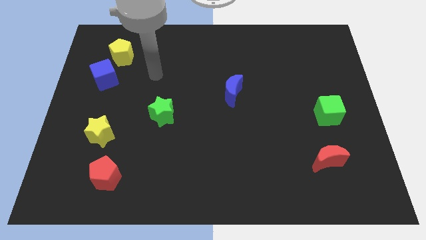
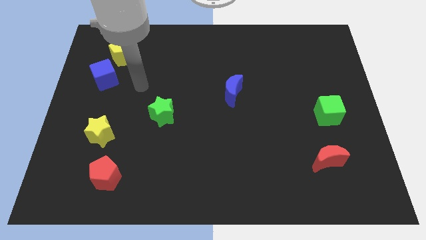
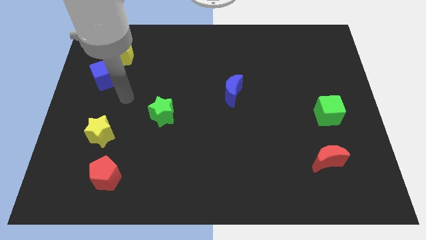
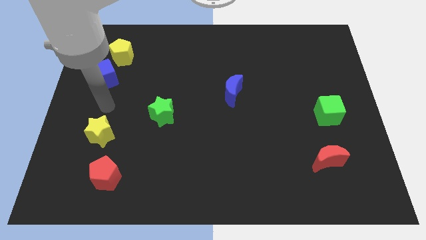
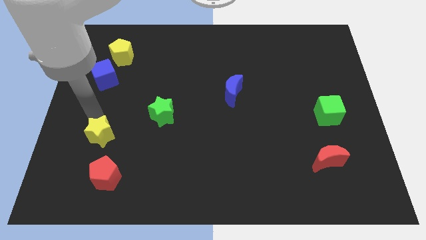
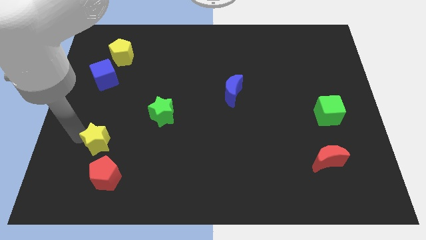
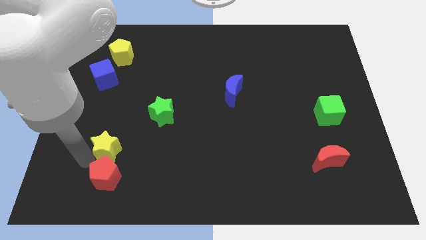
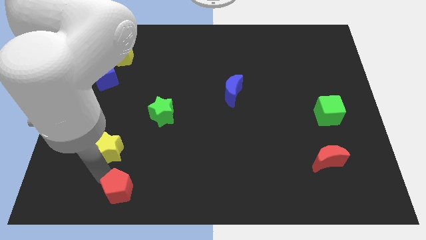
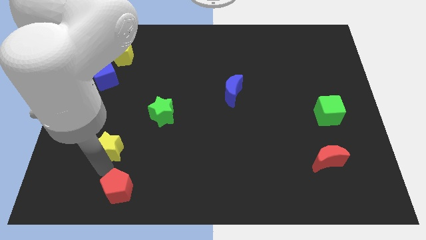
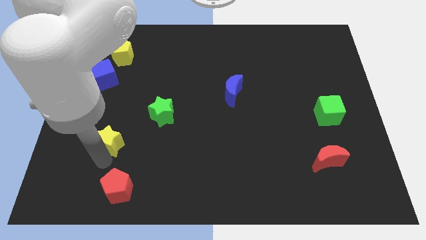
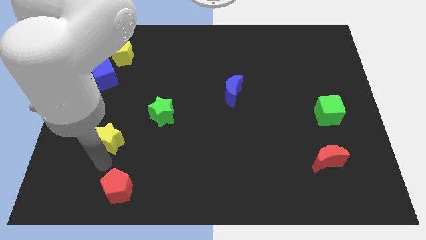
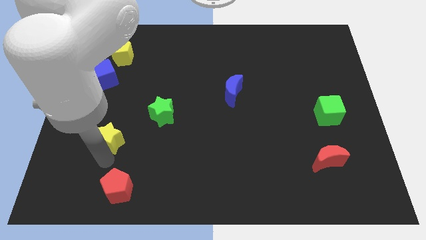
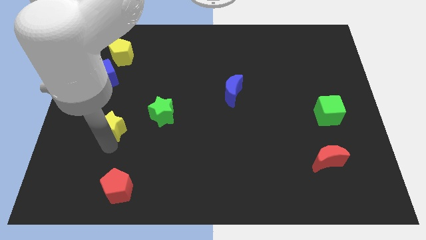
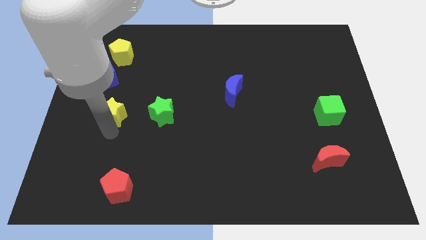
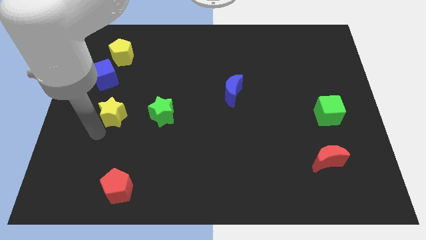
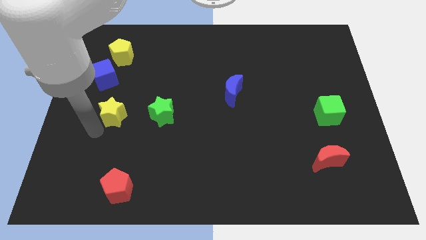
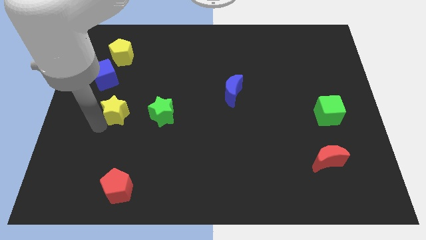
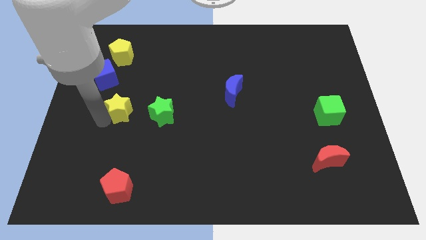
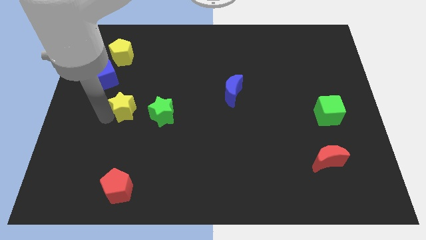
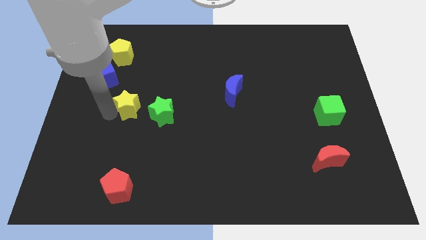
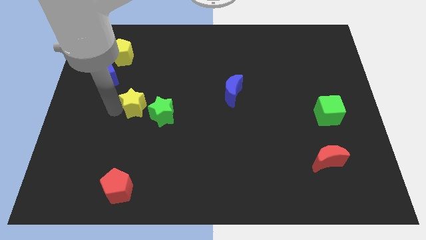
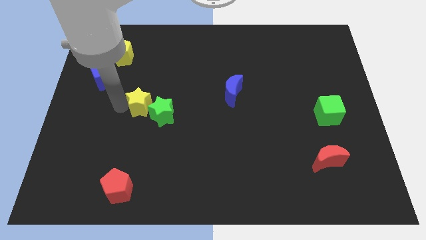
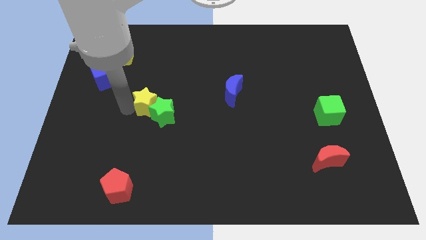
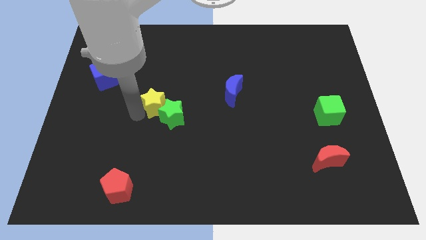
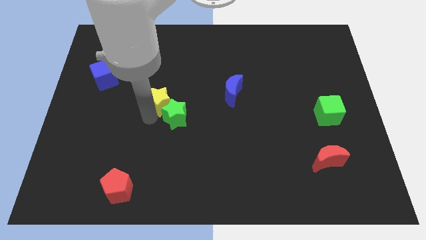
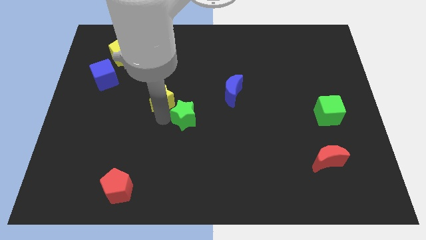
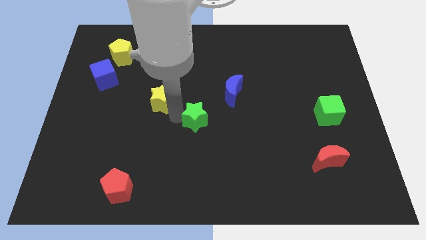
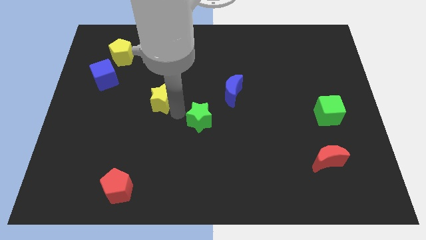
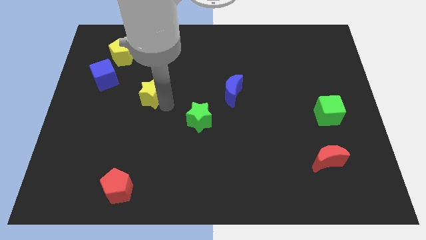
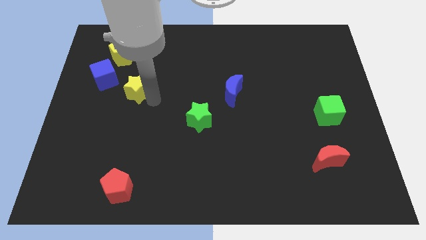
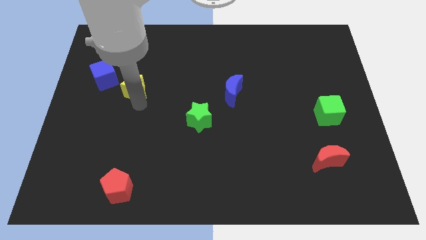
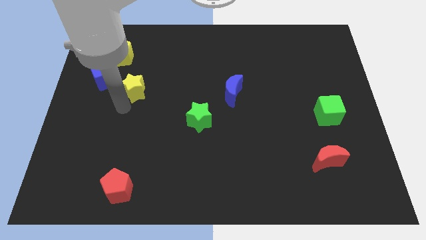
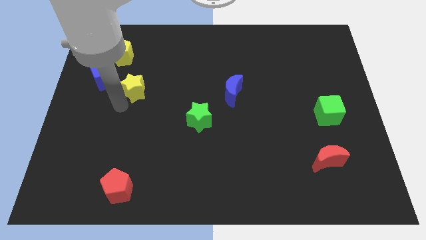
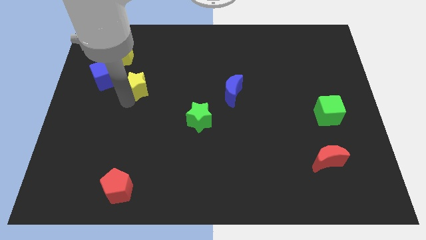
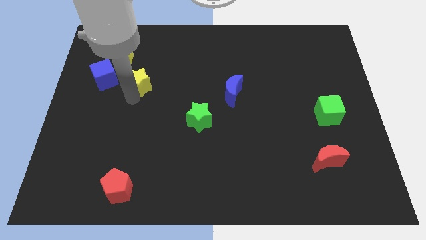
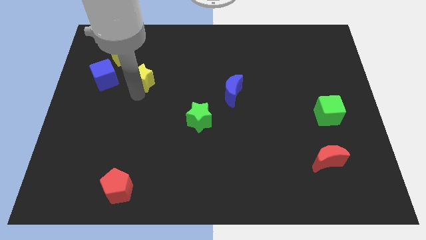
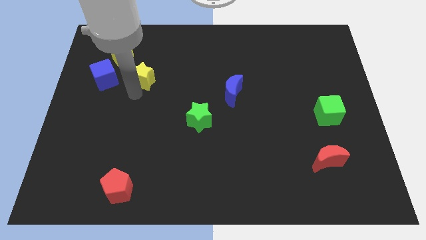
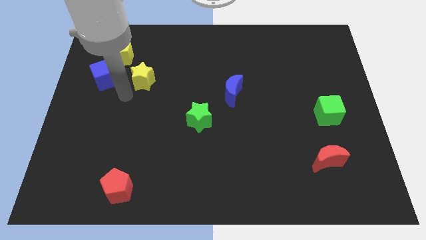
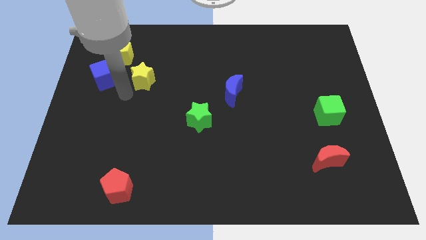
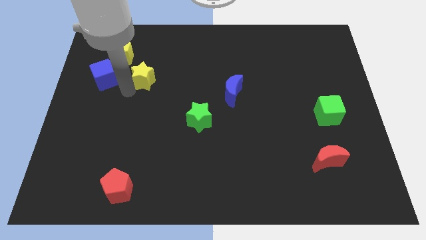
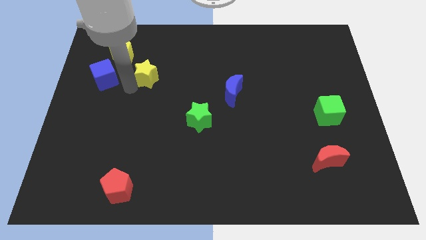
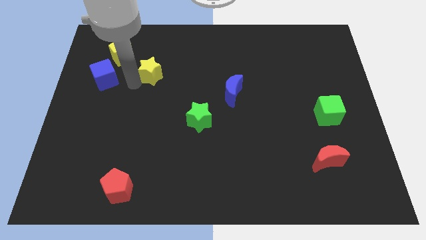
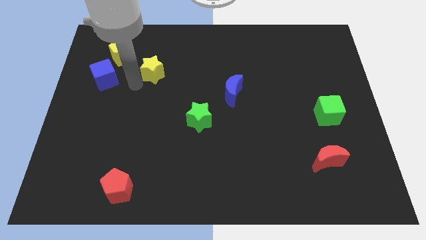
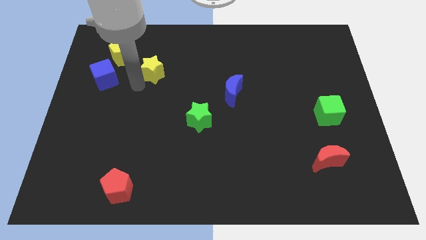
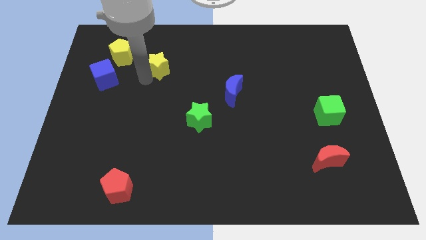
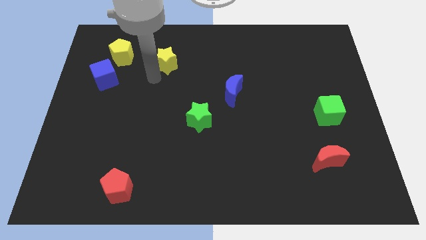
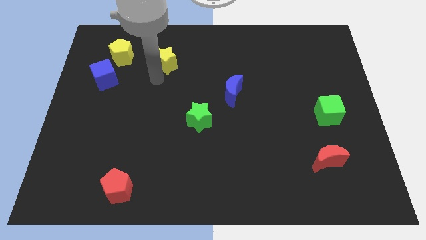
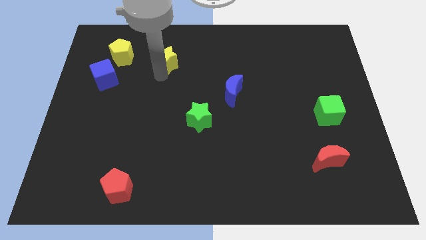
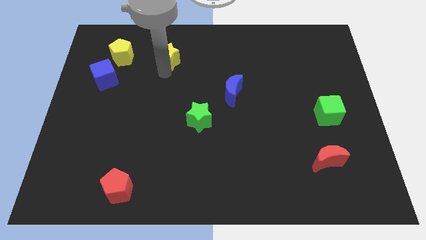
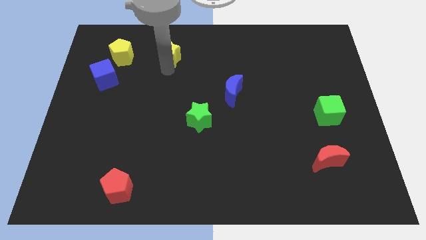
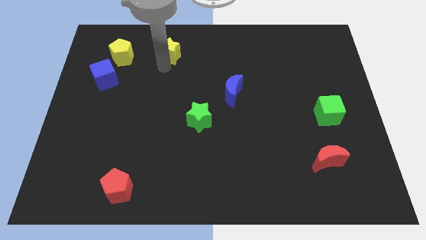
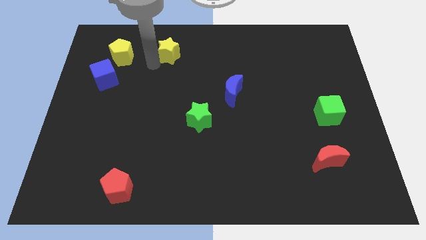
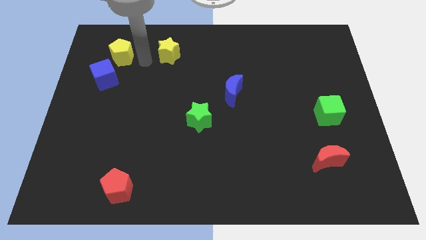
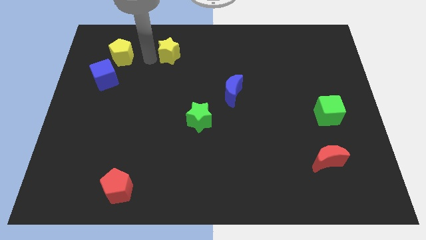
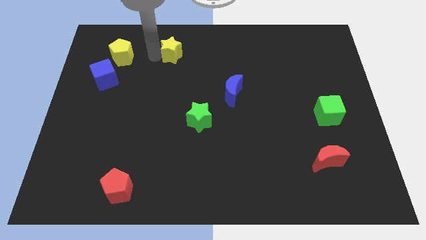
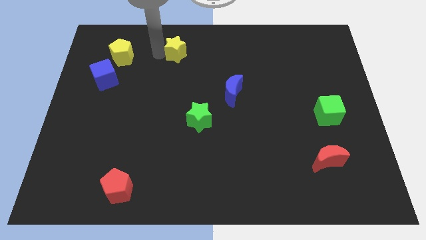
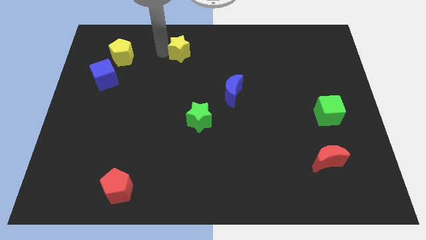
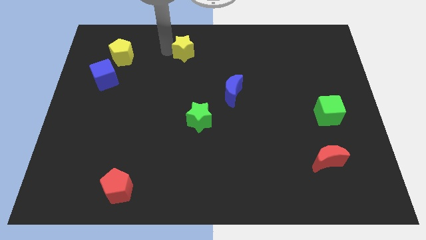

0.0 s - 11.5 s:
push the yellow star to the towards your base

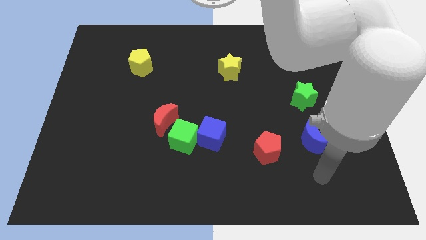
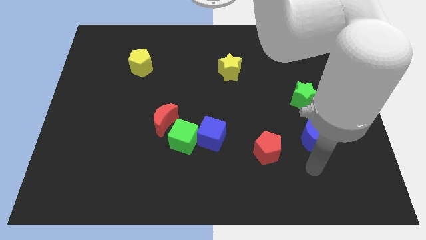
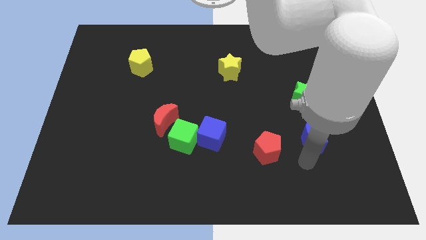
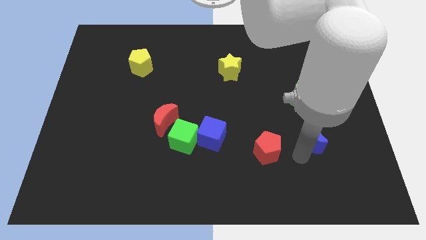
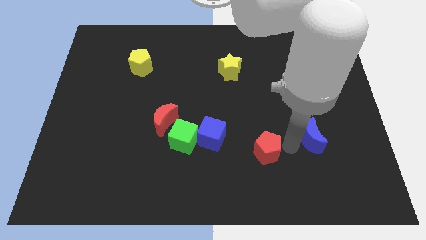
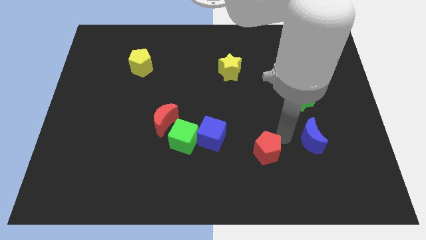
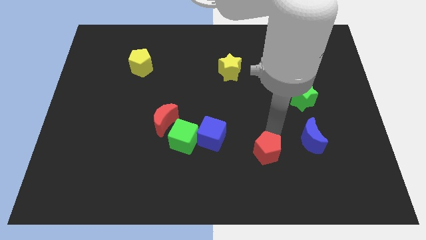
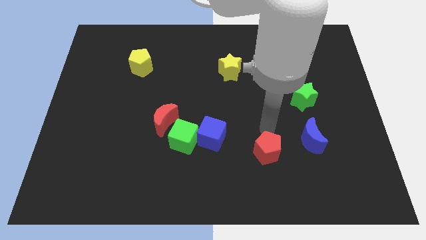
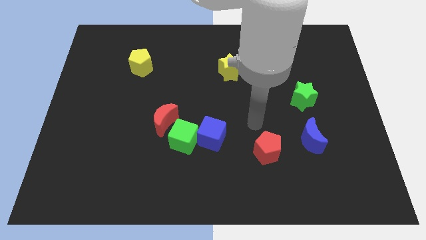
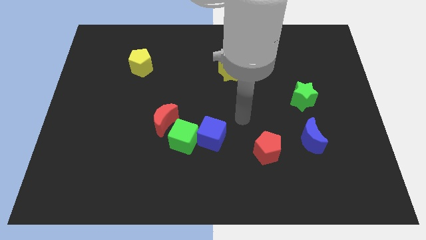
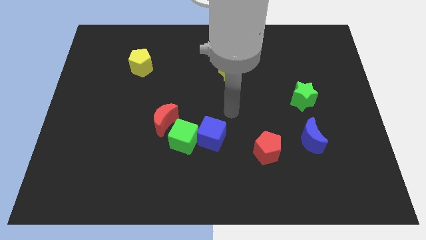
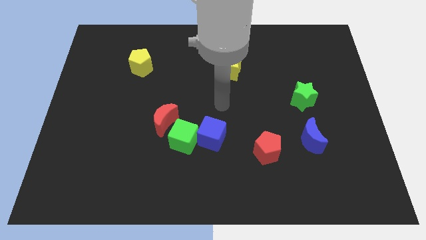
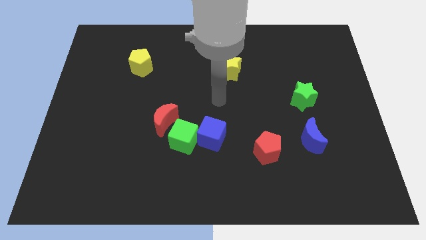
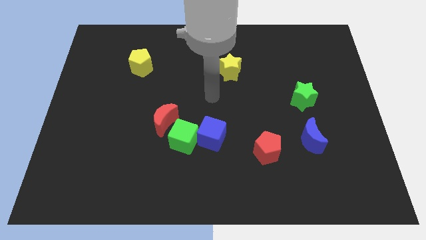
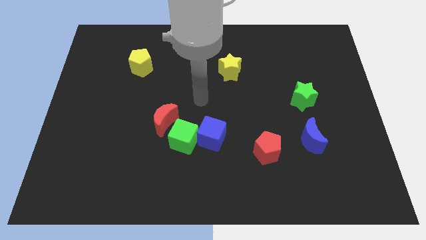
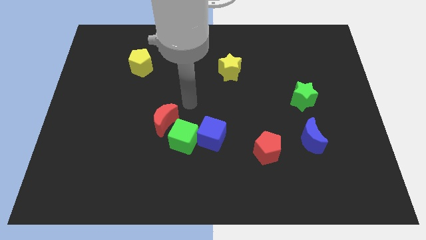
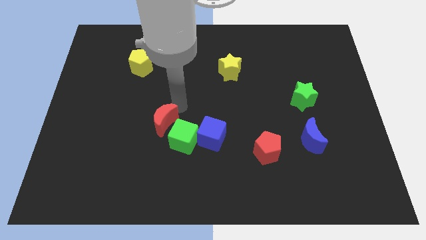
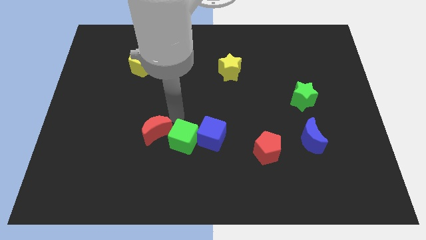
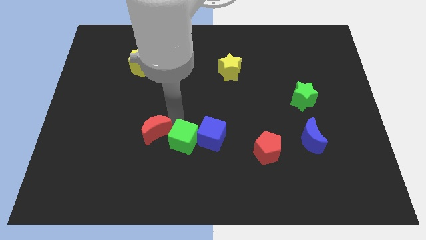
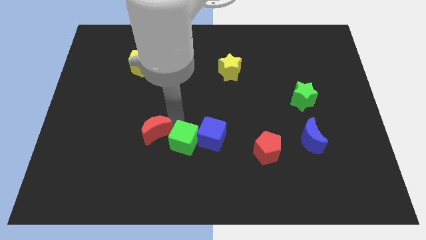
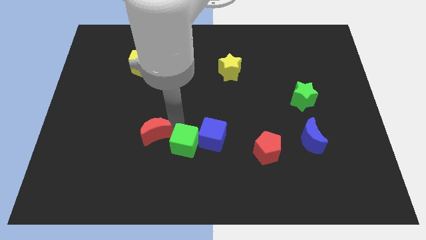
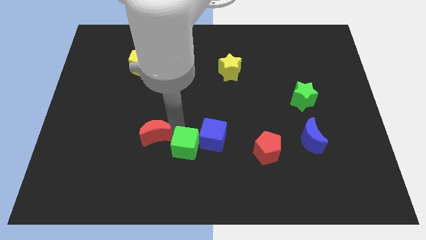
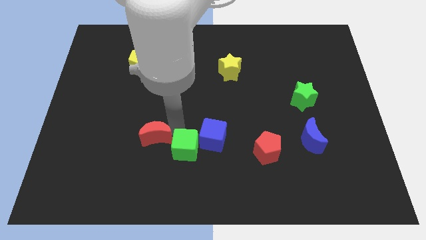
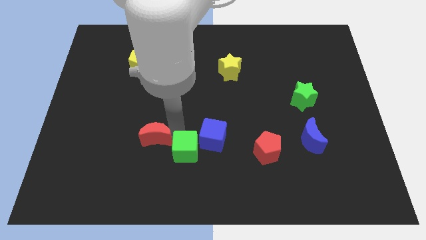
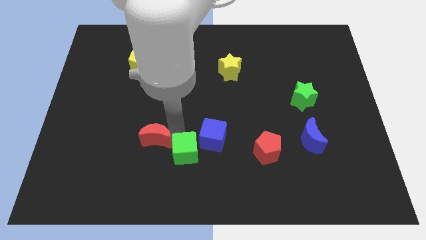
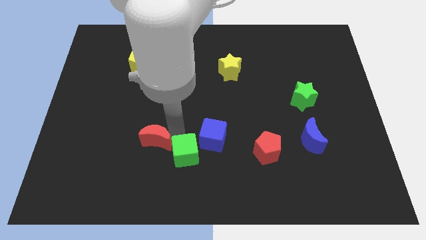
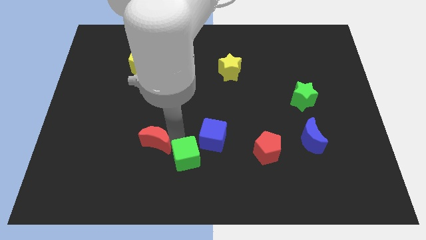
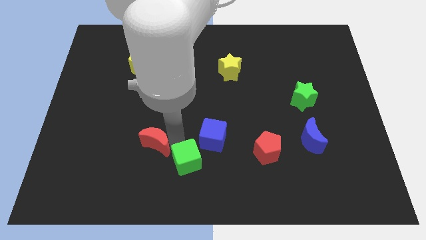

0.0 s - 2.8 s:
push the green cube to the bottom
